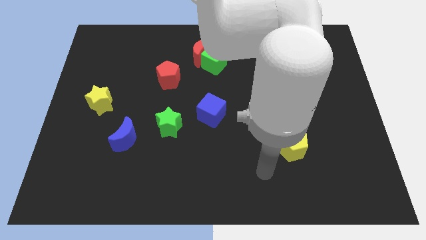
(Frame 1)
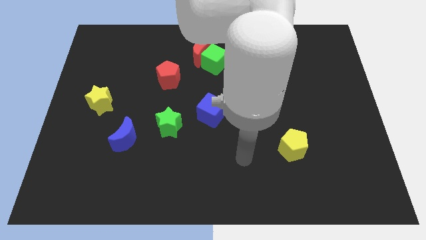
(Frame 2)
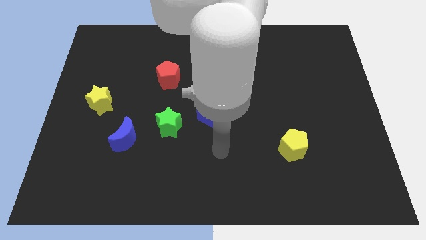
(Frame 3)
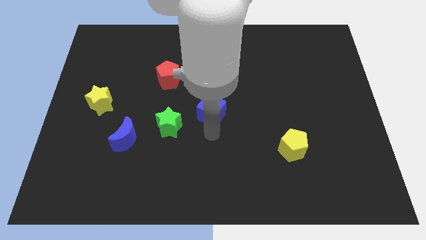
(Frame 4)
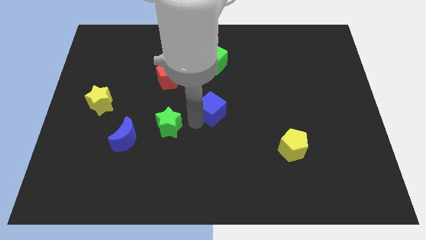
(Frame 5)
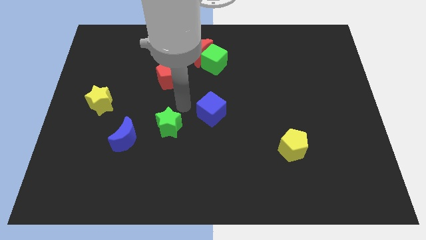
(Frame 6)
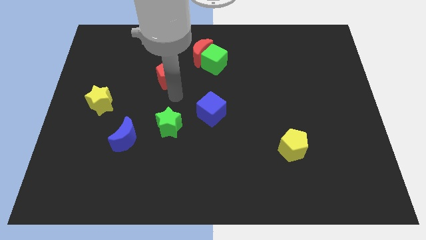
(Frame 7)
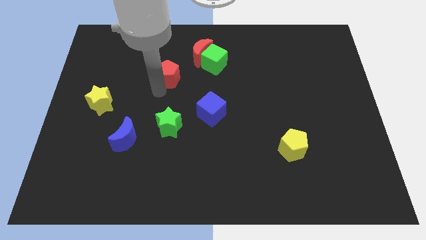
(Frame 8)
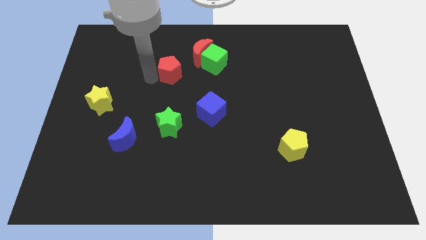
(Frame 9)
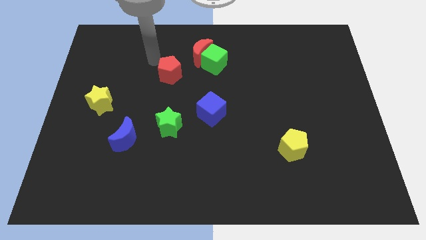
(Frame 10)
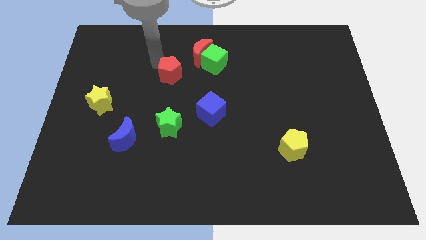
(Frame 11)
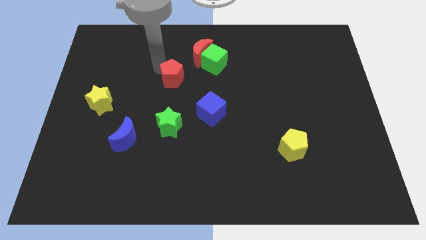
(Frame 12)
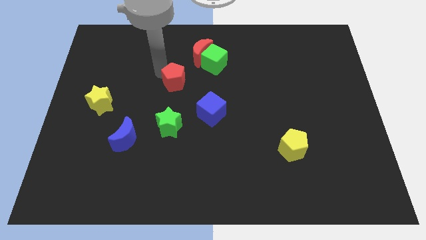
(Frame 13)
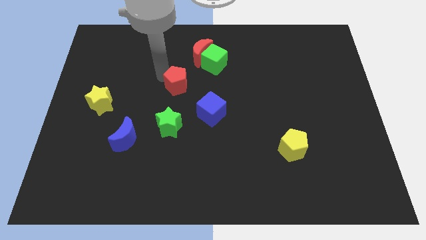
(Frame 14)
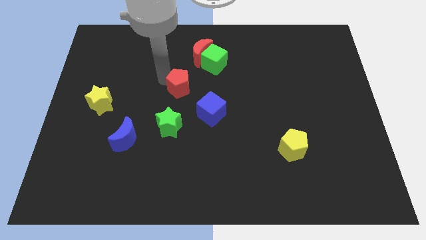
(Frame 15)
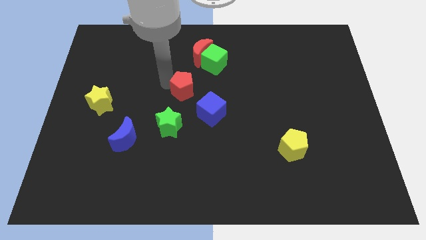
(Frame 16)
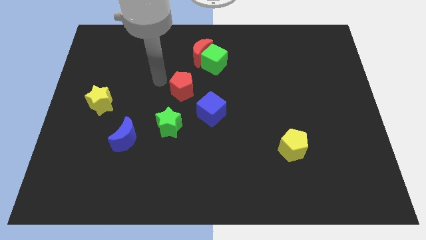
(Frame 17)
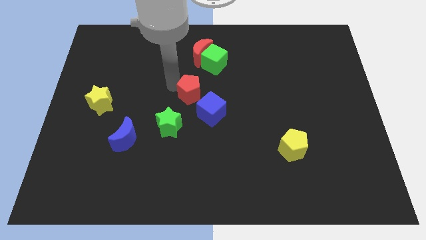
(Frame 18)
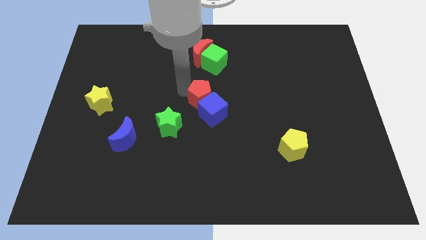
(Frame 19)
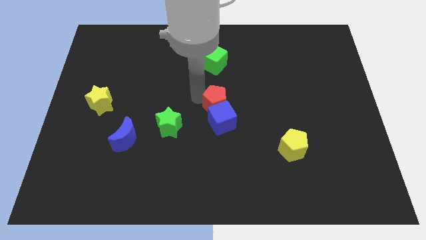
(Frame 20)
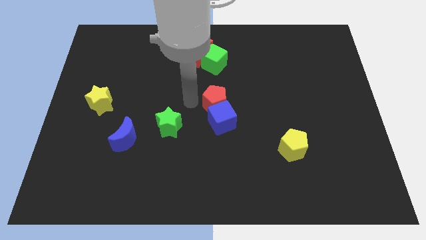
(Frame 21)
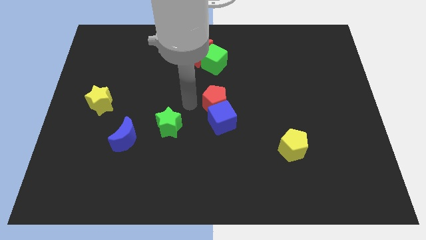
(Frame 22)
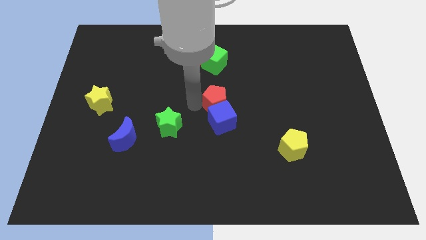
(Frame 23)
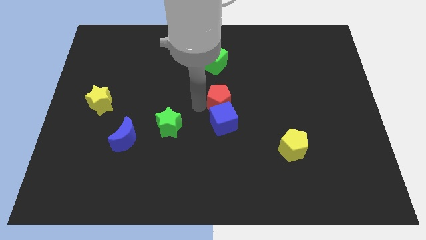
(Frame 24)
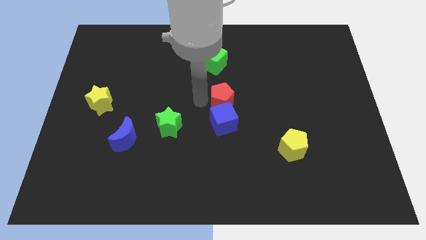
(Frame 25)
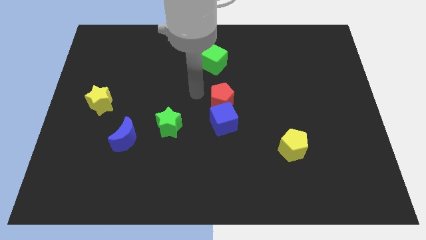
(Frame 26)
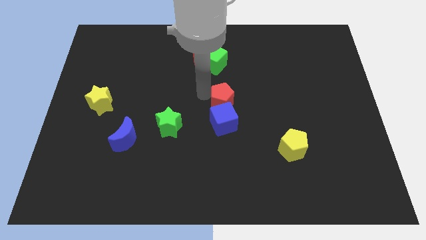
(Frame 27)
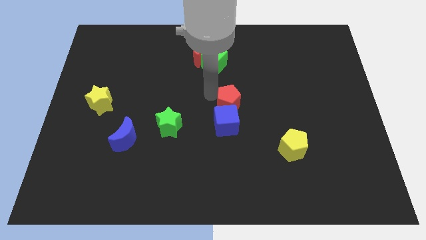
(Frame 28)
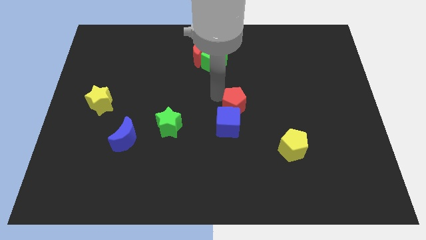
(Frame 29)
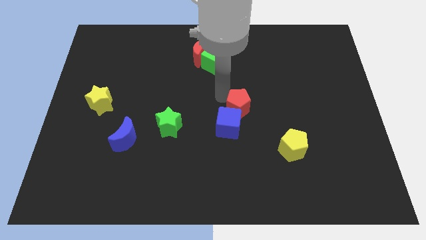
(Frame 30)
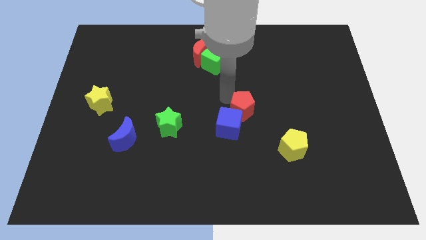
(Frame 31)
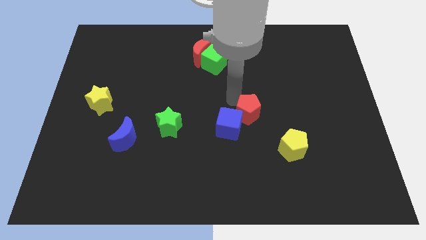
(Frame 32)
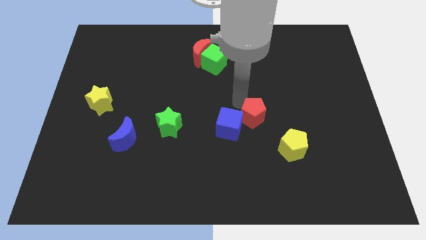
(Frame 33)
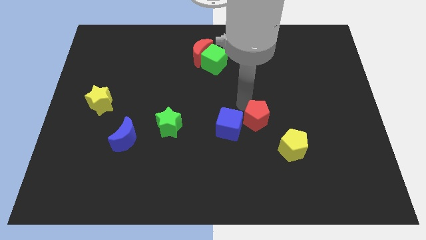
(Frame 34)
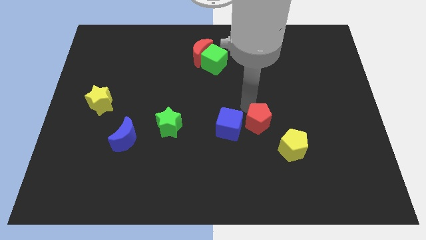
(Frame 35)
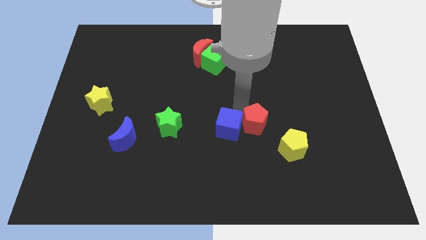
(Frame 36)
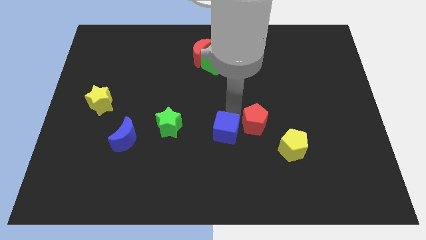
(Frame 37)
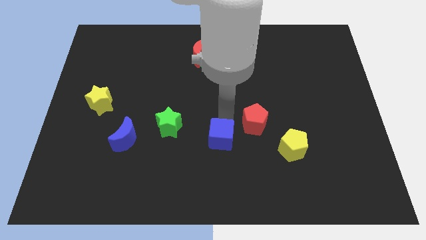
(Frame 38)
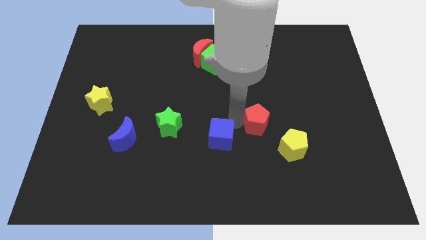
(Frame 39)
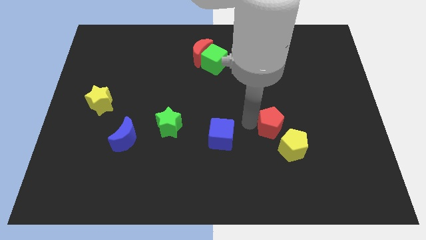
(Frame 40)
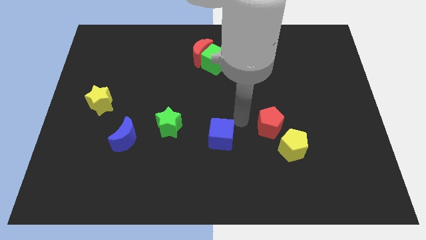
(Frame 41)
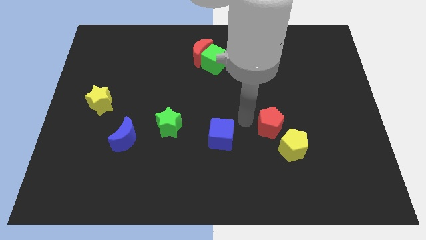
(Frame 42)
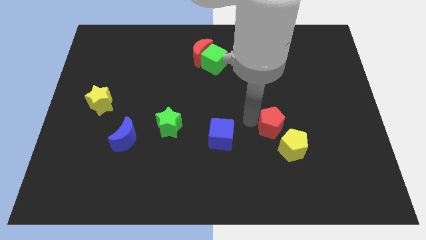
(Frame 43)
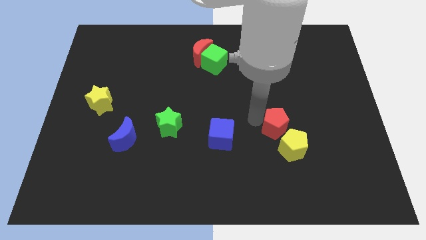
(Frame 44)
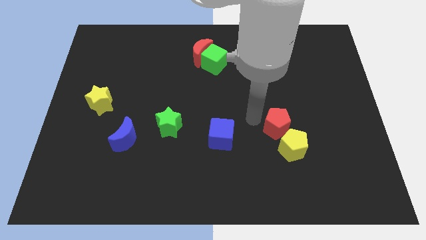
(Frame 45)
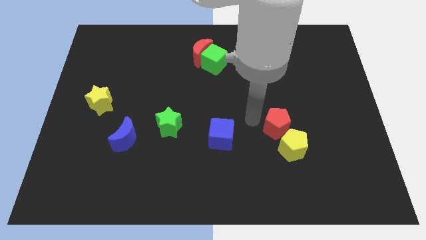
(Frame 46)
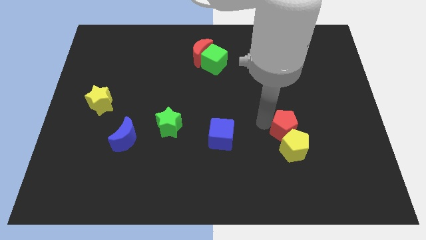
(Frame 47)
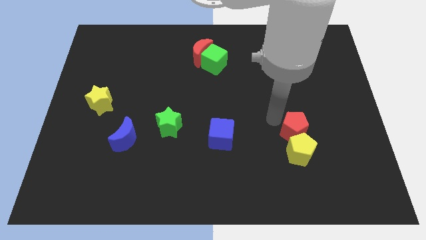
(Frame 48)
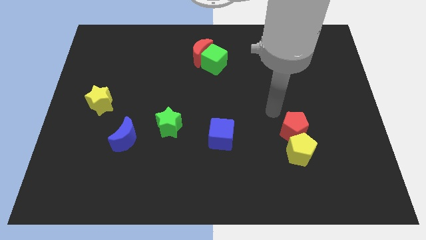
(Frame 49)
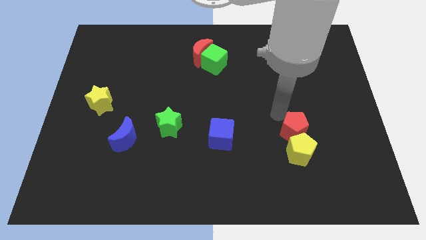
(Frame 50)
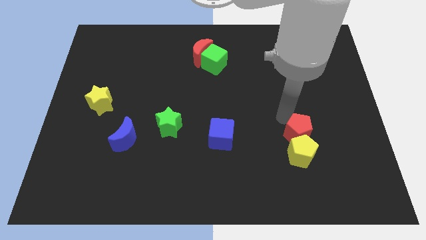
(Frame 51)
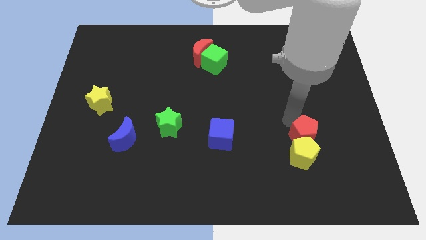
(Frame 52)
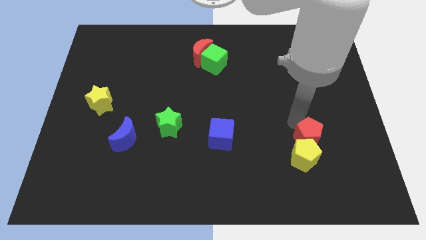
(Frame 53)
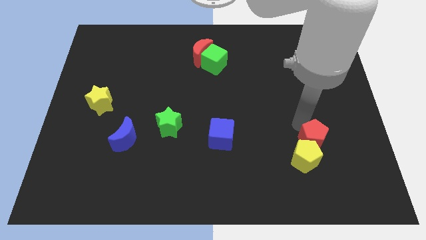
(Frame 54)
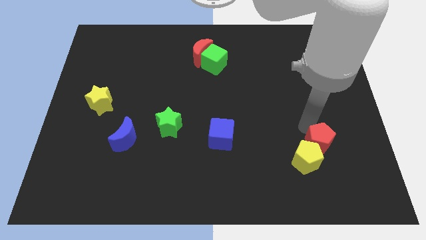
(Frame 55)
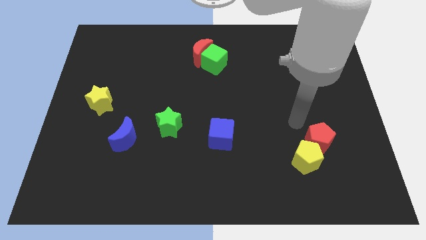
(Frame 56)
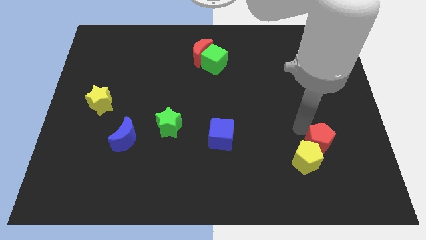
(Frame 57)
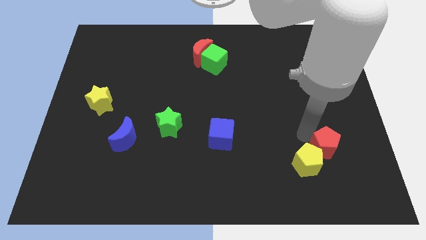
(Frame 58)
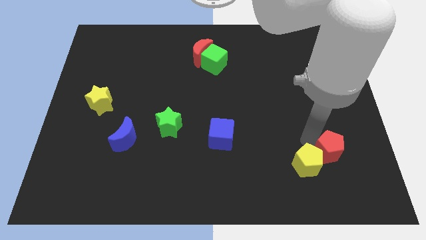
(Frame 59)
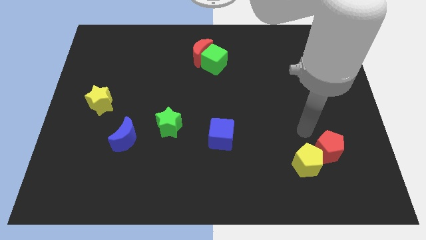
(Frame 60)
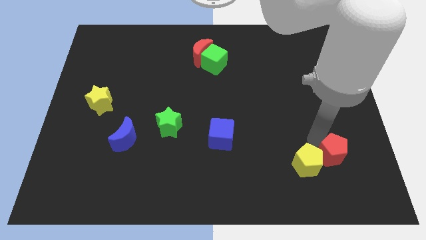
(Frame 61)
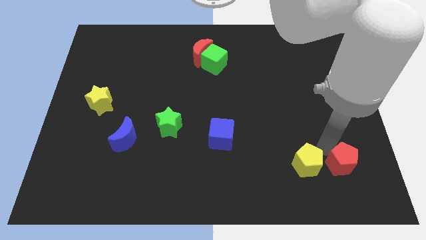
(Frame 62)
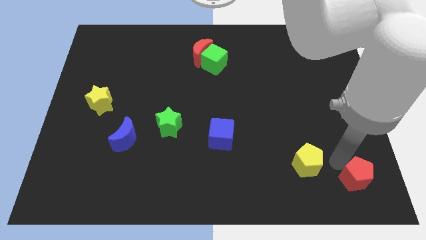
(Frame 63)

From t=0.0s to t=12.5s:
put the red pentagon to the bottom right of the board
